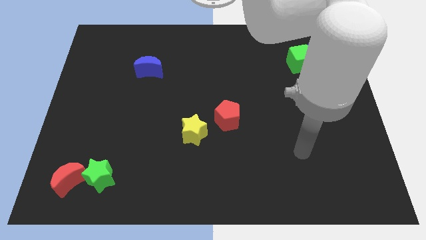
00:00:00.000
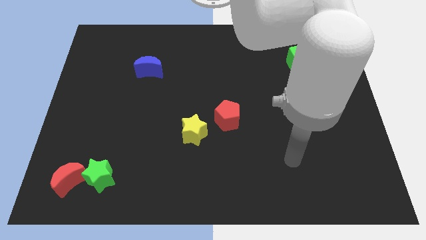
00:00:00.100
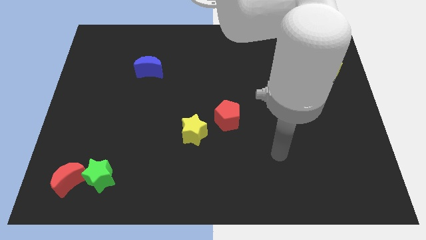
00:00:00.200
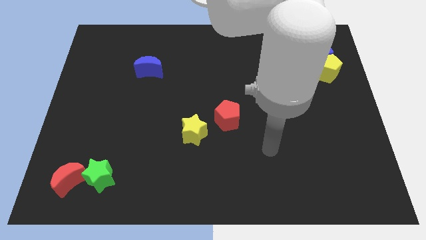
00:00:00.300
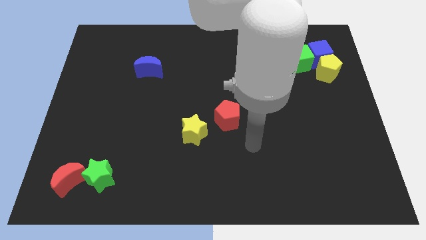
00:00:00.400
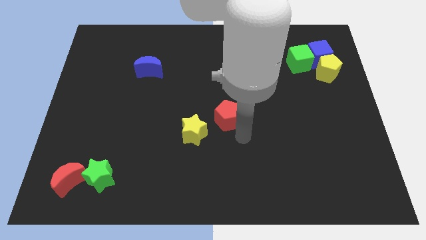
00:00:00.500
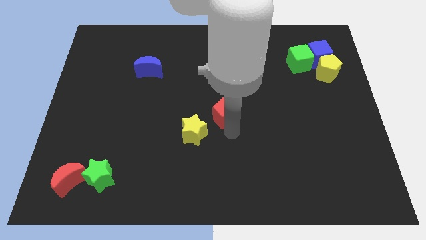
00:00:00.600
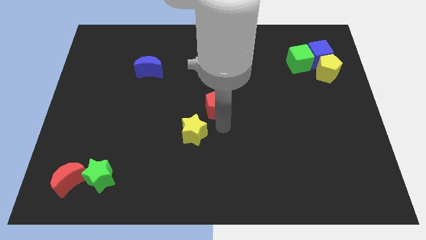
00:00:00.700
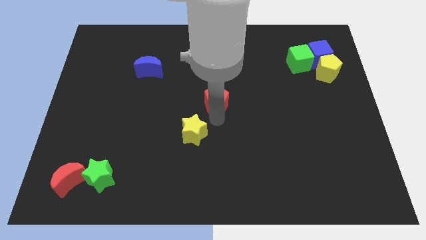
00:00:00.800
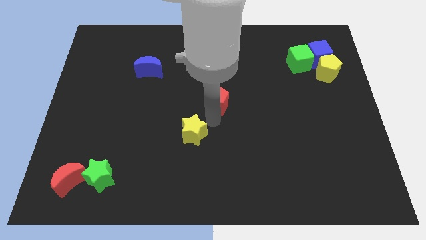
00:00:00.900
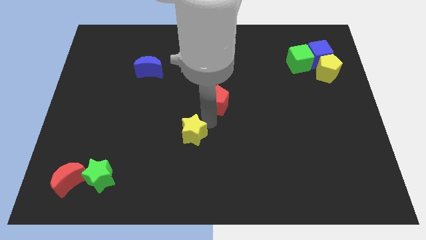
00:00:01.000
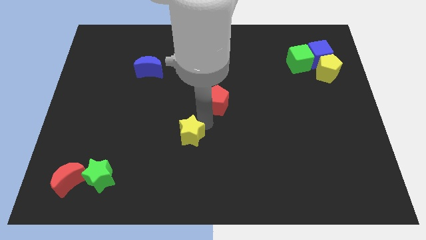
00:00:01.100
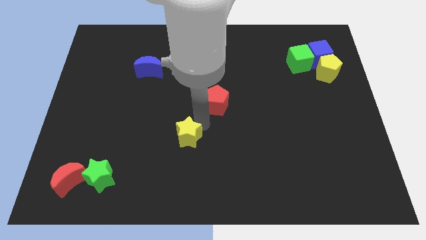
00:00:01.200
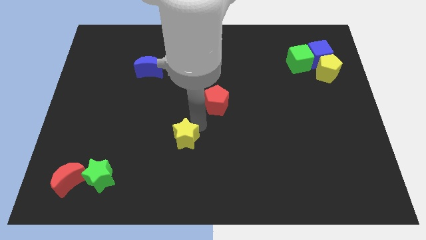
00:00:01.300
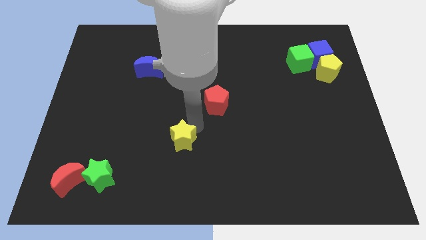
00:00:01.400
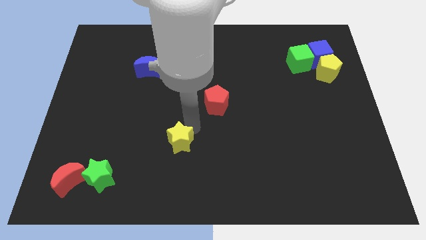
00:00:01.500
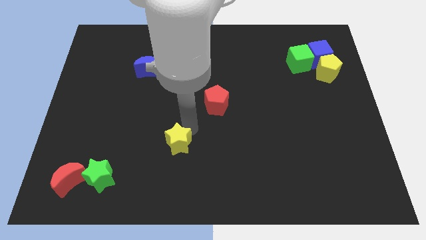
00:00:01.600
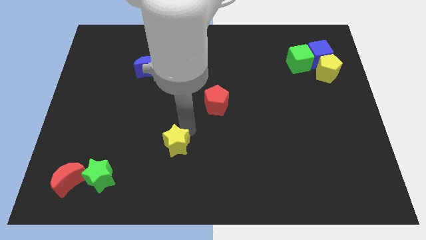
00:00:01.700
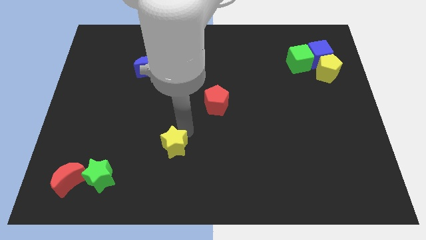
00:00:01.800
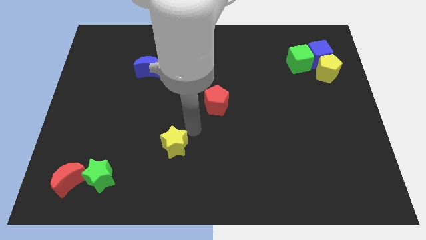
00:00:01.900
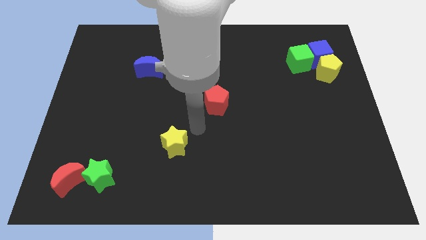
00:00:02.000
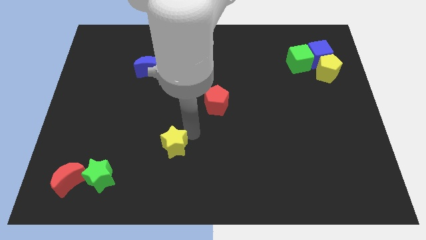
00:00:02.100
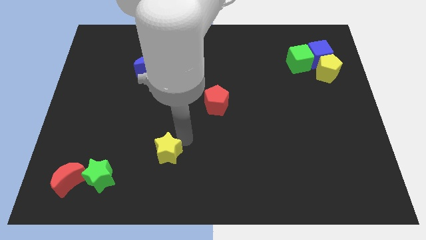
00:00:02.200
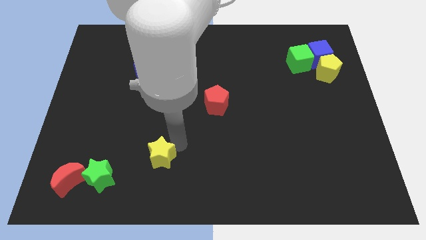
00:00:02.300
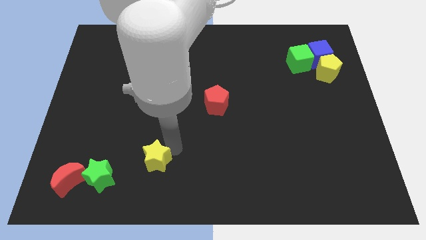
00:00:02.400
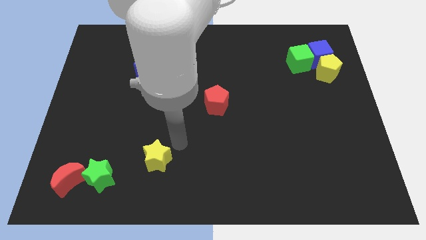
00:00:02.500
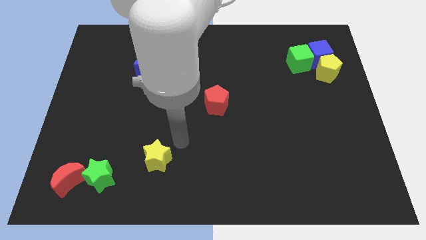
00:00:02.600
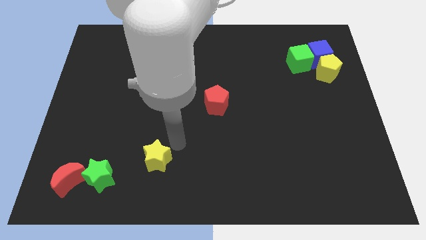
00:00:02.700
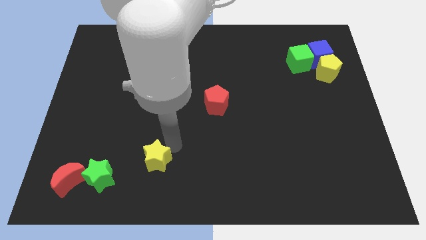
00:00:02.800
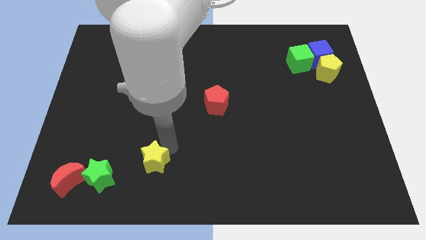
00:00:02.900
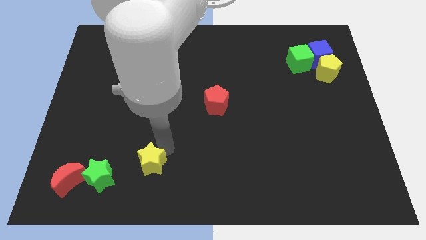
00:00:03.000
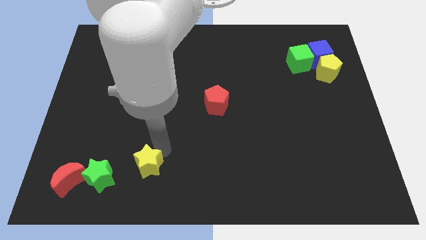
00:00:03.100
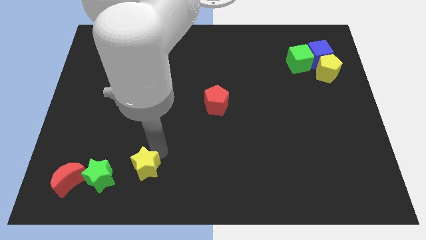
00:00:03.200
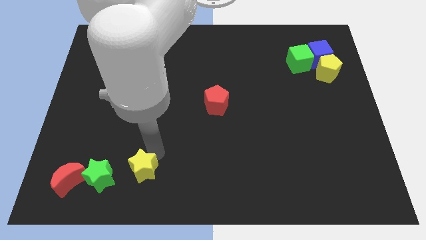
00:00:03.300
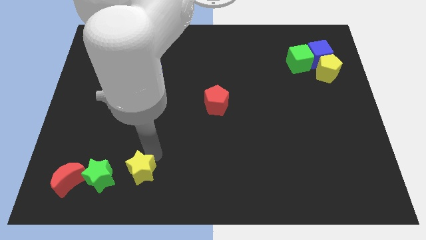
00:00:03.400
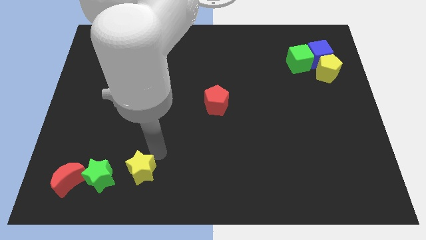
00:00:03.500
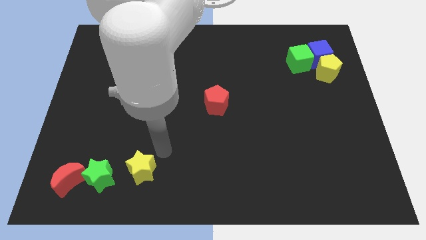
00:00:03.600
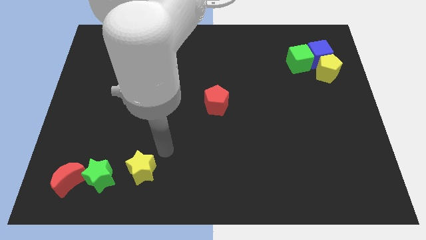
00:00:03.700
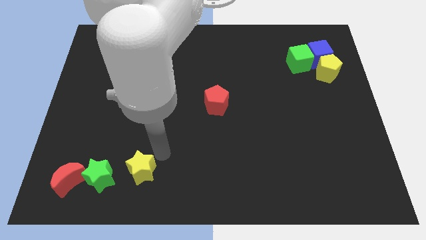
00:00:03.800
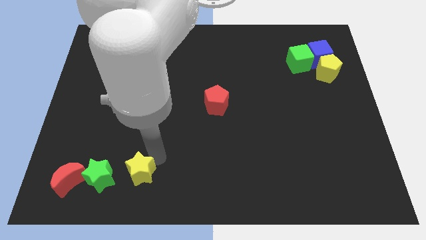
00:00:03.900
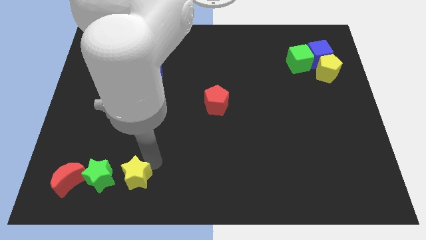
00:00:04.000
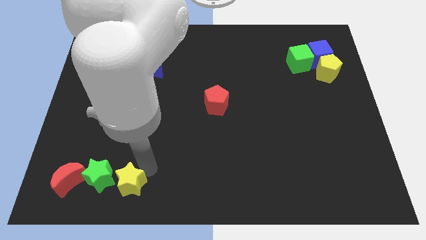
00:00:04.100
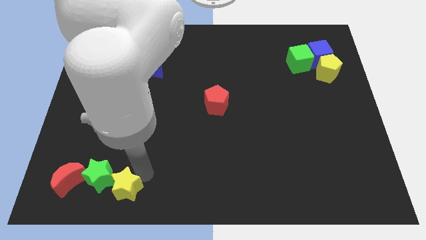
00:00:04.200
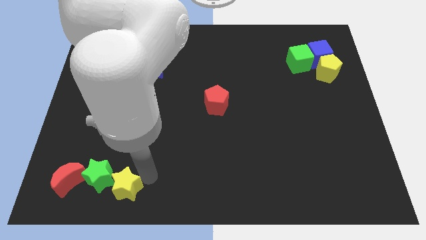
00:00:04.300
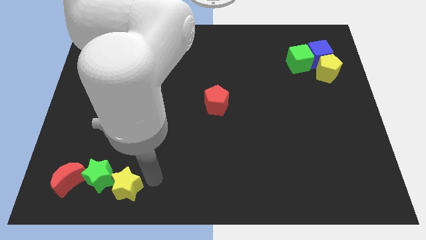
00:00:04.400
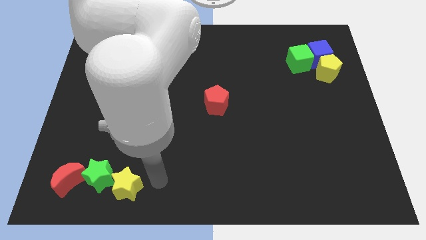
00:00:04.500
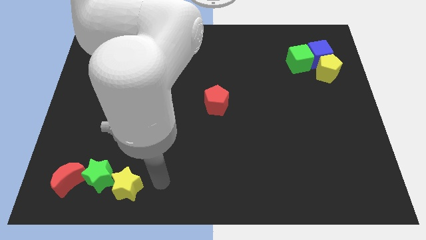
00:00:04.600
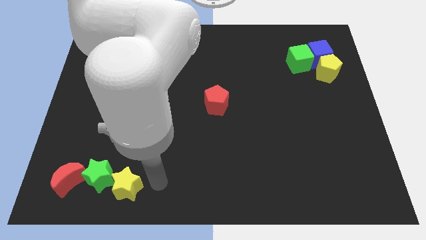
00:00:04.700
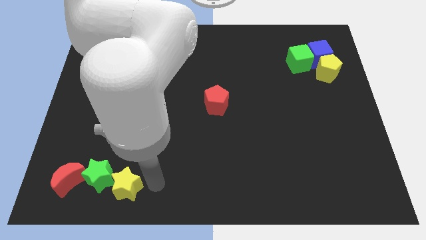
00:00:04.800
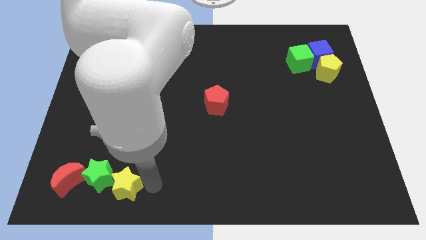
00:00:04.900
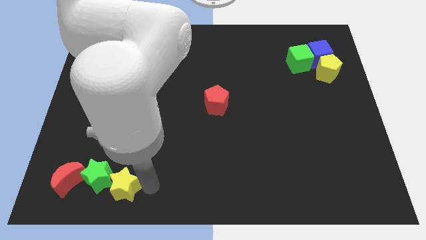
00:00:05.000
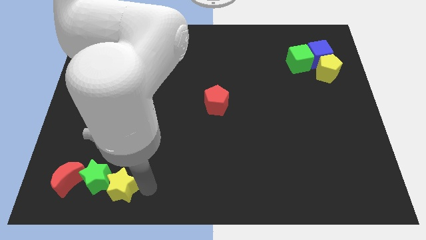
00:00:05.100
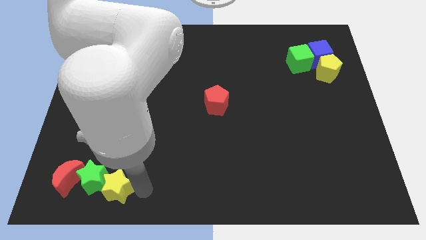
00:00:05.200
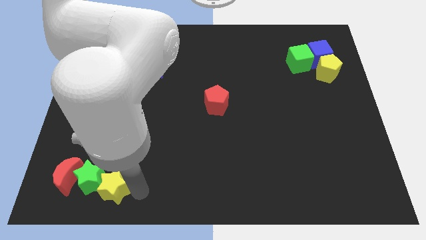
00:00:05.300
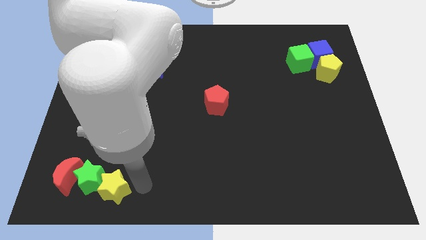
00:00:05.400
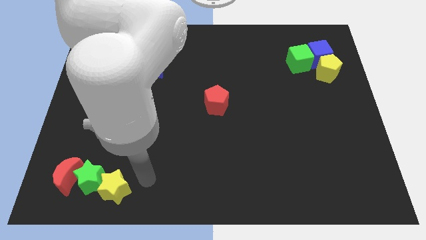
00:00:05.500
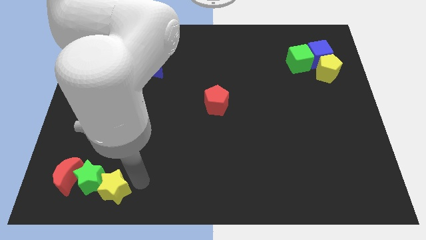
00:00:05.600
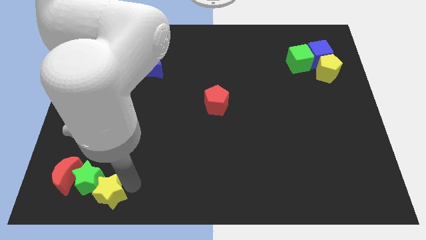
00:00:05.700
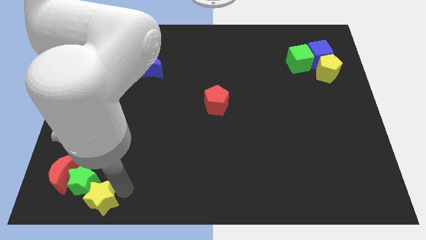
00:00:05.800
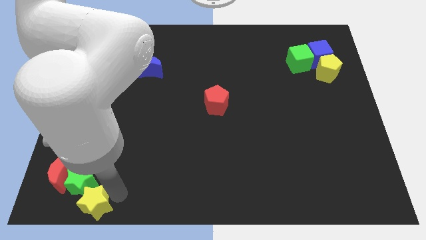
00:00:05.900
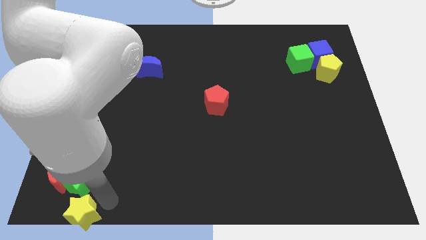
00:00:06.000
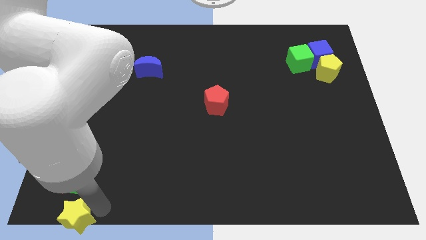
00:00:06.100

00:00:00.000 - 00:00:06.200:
push the yellow star to the bottom left

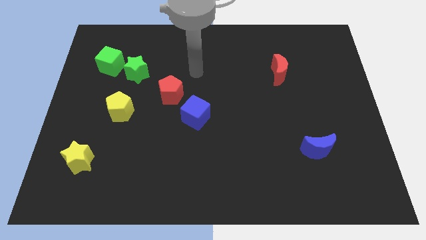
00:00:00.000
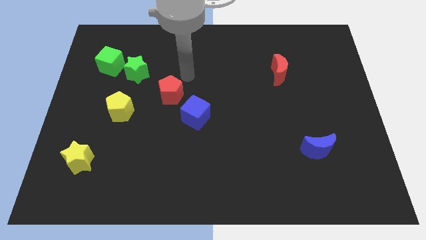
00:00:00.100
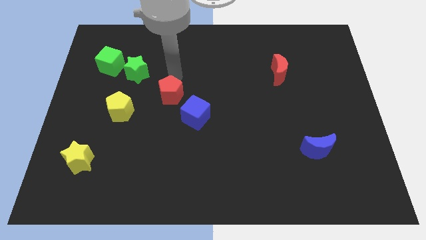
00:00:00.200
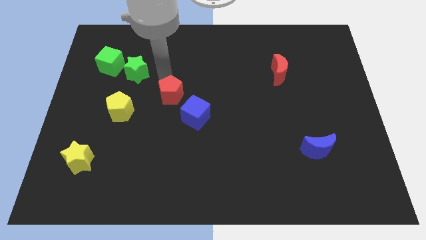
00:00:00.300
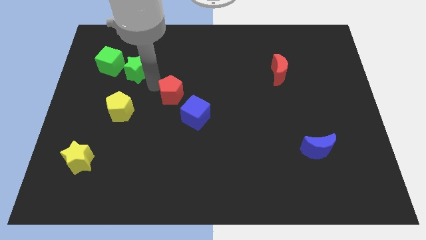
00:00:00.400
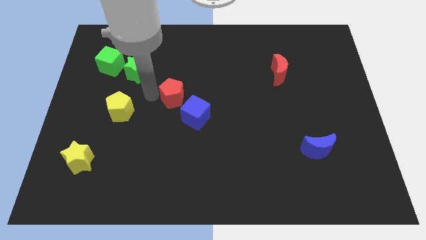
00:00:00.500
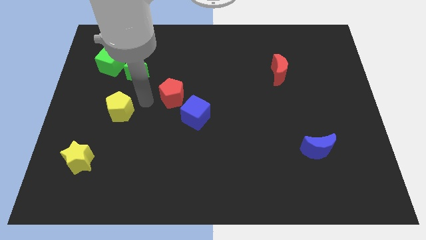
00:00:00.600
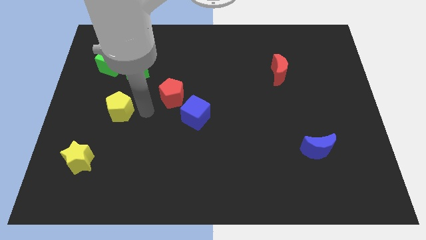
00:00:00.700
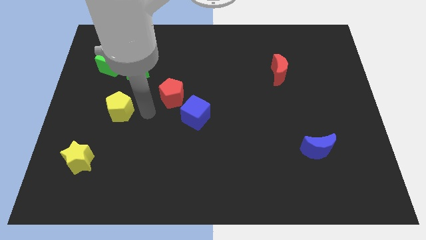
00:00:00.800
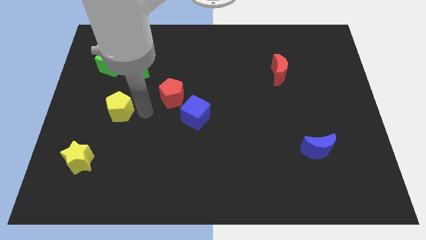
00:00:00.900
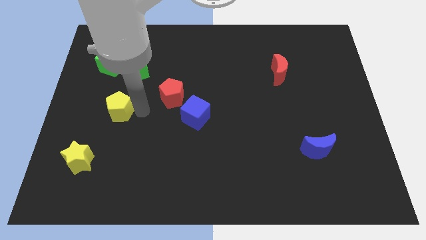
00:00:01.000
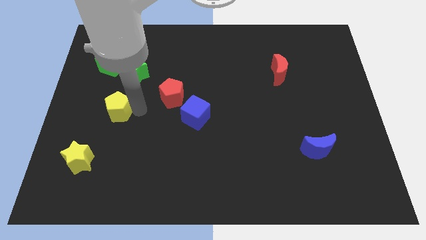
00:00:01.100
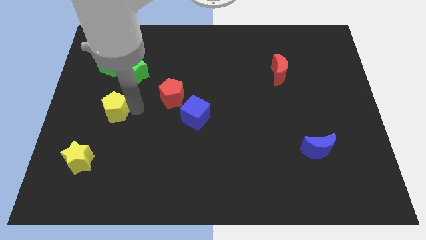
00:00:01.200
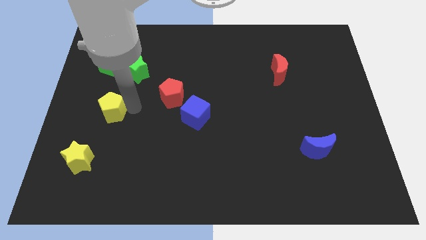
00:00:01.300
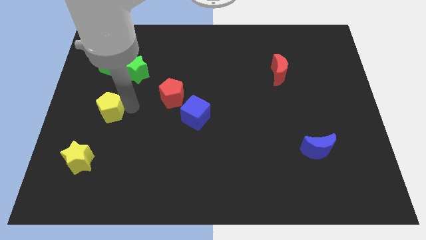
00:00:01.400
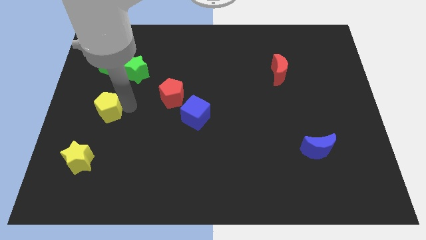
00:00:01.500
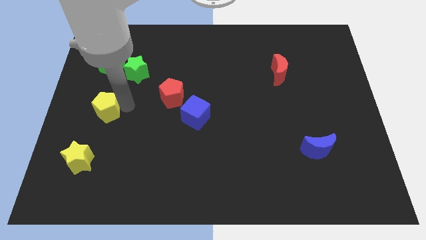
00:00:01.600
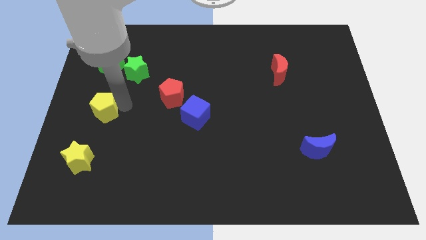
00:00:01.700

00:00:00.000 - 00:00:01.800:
push the yellow pentagon to the left side
